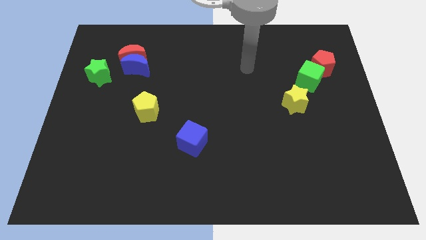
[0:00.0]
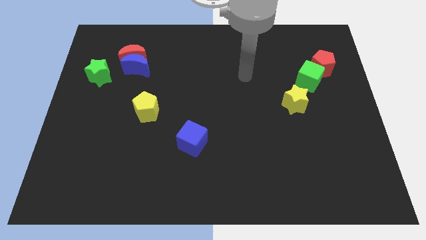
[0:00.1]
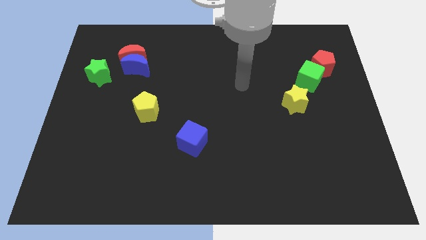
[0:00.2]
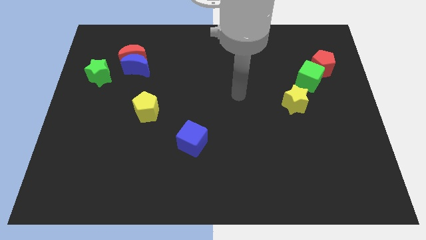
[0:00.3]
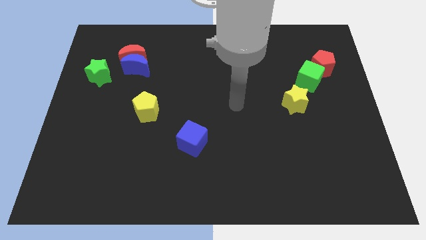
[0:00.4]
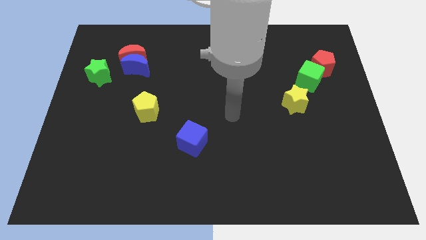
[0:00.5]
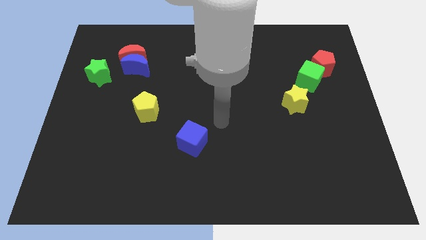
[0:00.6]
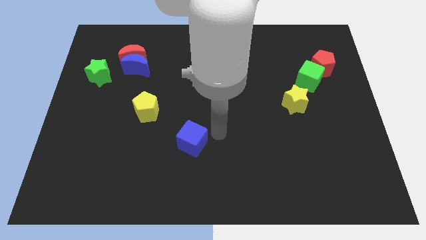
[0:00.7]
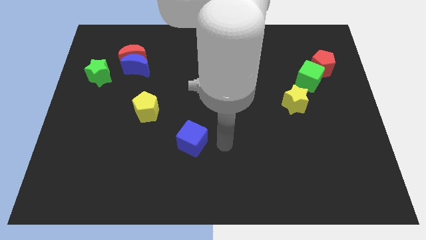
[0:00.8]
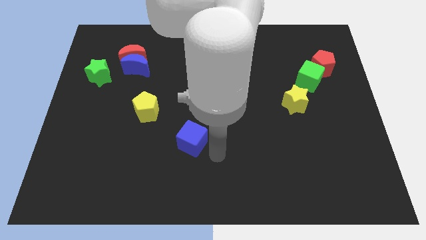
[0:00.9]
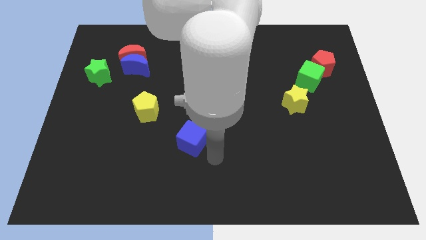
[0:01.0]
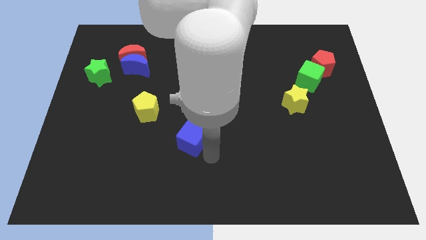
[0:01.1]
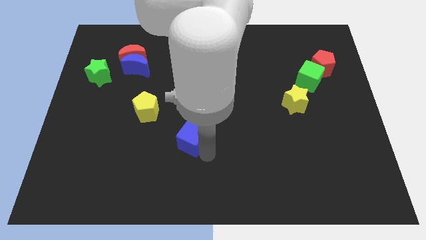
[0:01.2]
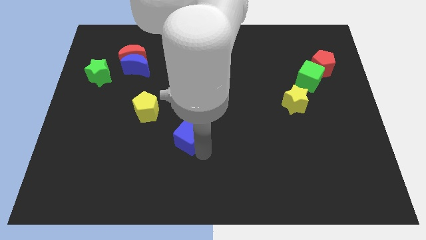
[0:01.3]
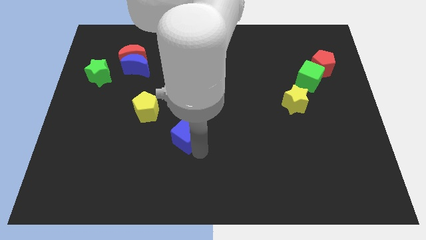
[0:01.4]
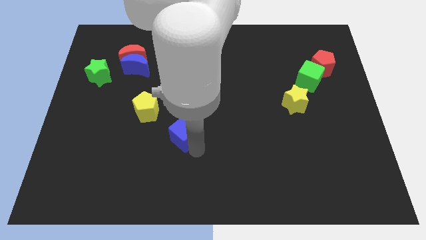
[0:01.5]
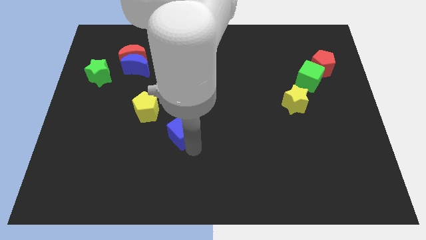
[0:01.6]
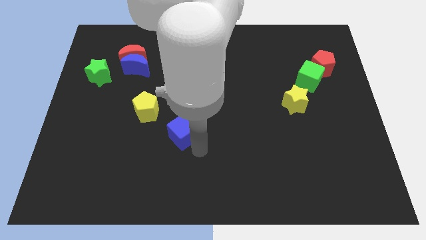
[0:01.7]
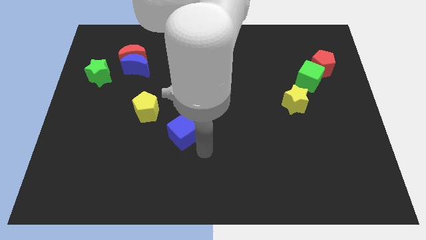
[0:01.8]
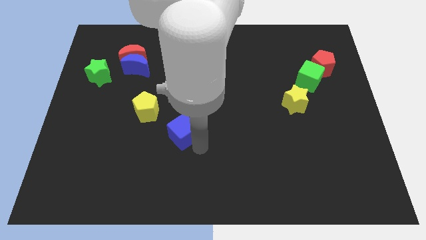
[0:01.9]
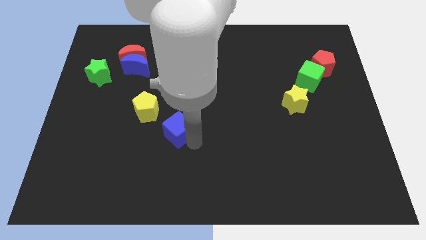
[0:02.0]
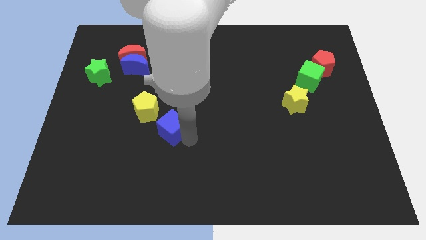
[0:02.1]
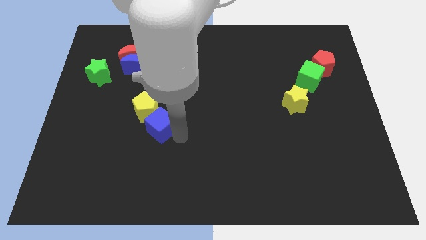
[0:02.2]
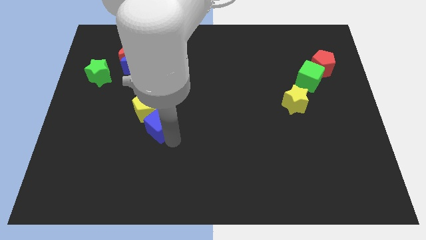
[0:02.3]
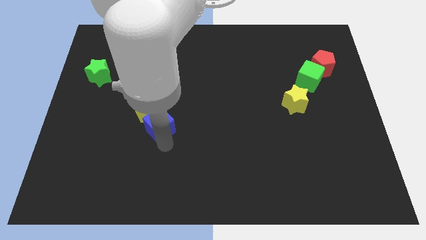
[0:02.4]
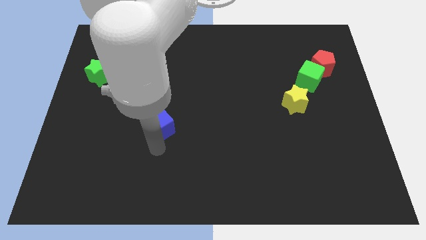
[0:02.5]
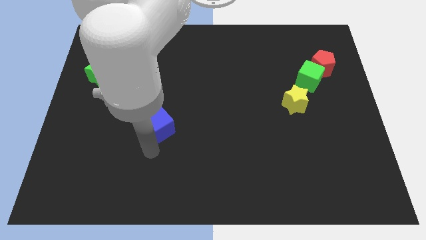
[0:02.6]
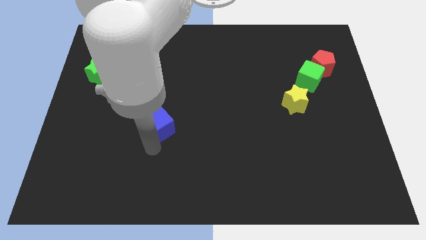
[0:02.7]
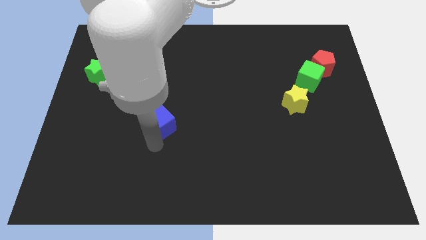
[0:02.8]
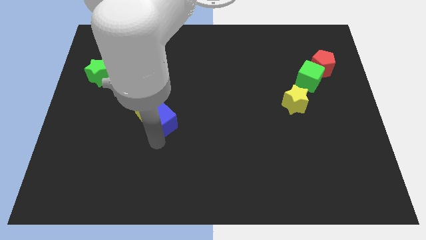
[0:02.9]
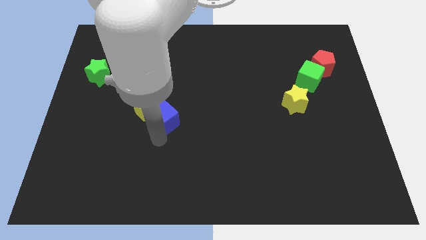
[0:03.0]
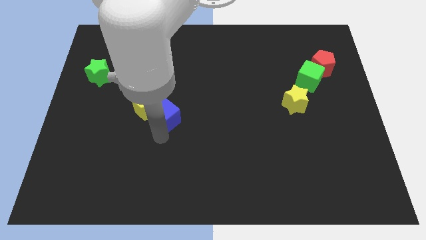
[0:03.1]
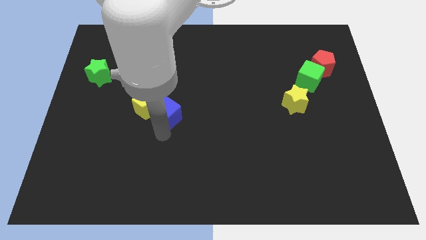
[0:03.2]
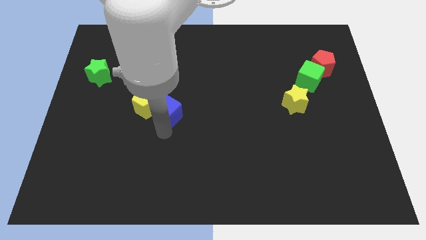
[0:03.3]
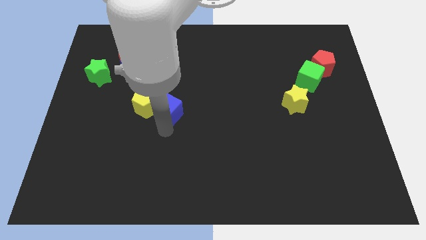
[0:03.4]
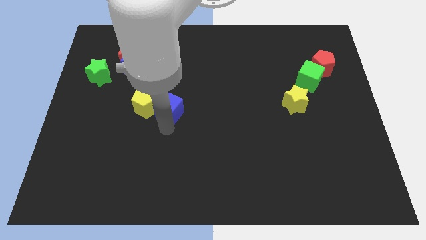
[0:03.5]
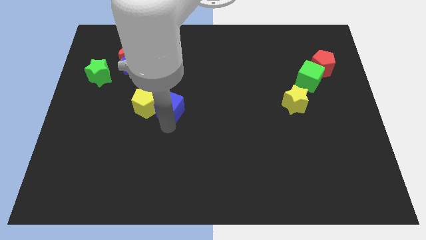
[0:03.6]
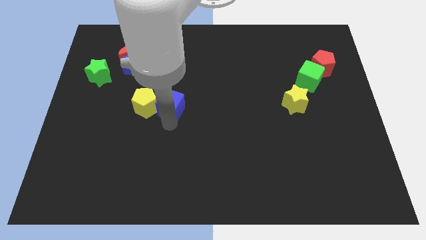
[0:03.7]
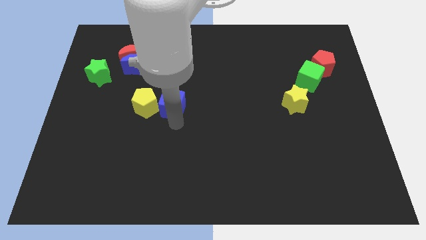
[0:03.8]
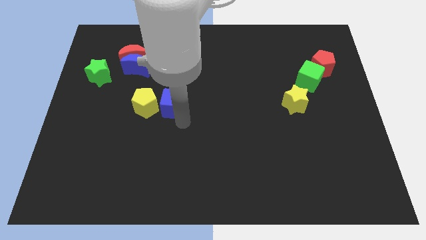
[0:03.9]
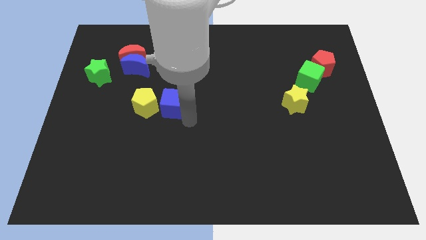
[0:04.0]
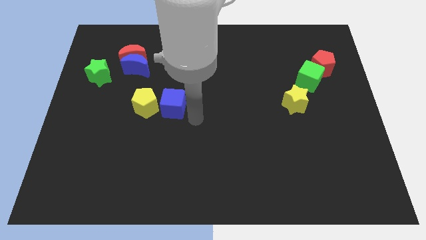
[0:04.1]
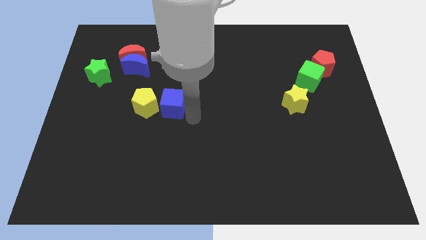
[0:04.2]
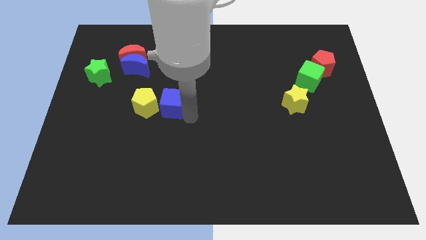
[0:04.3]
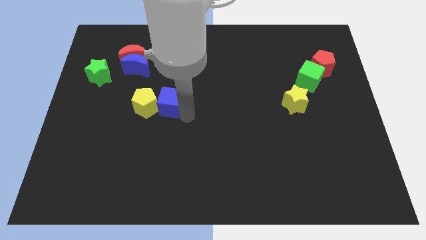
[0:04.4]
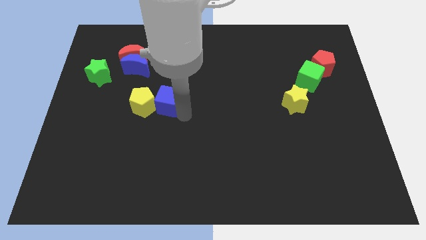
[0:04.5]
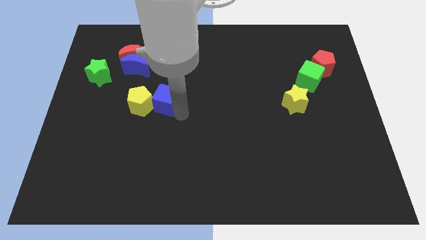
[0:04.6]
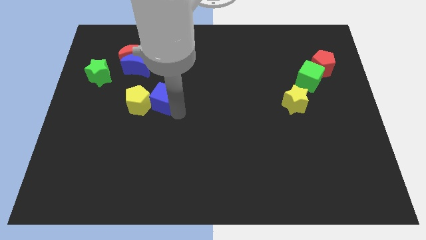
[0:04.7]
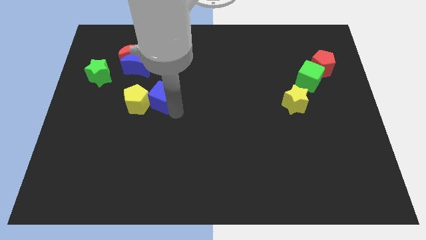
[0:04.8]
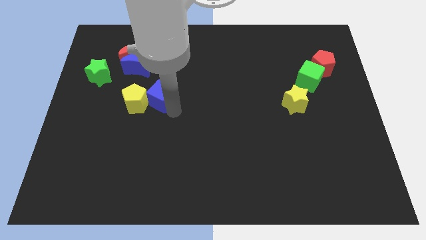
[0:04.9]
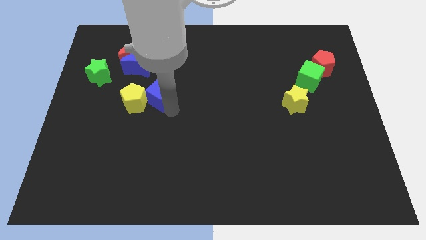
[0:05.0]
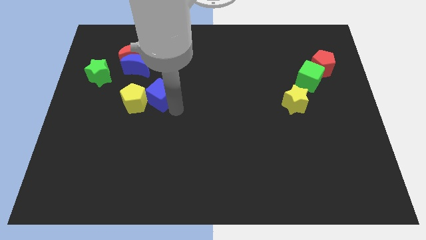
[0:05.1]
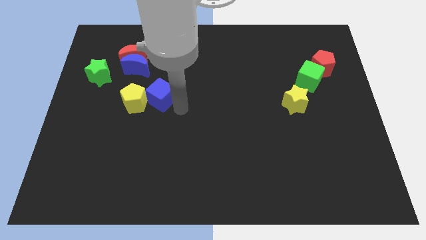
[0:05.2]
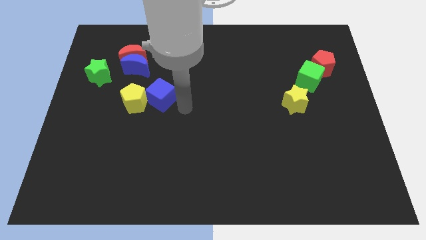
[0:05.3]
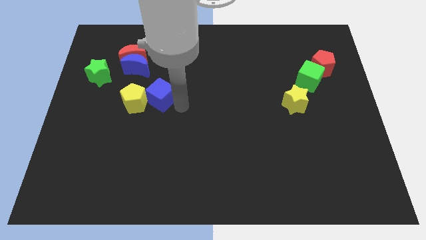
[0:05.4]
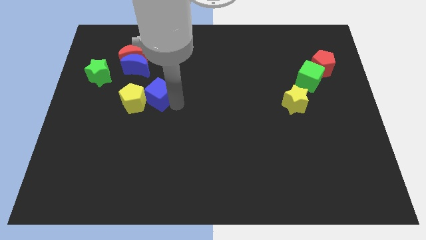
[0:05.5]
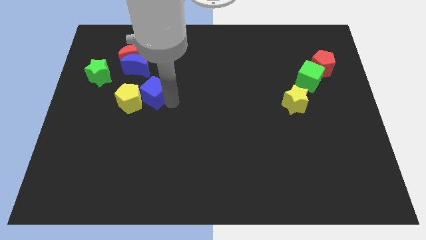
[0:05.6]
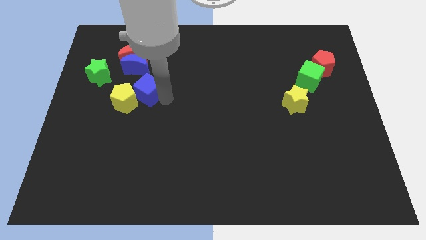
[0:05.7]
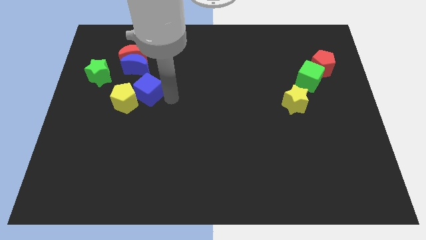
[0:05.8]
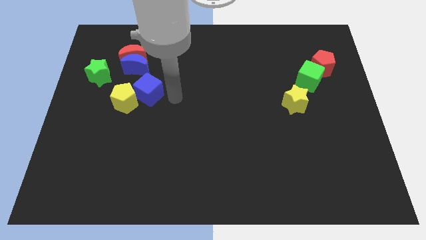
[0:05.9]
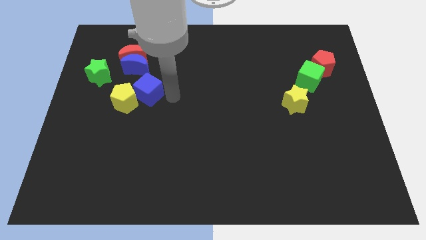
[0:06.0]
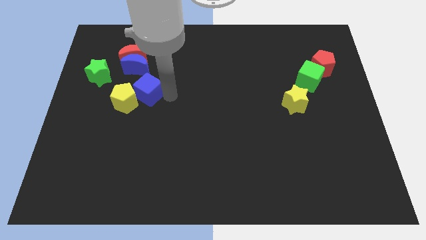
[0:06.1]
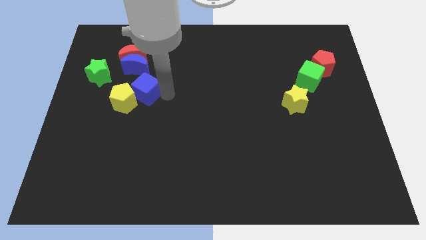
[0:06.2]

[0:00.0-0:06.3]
put the blue cube to the bottom of the red moon
